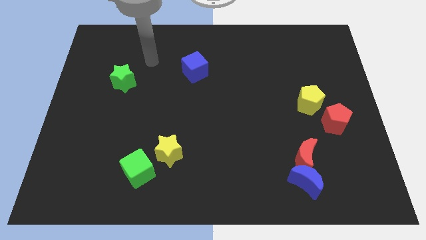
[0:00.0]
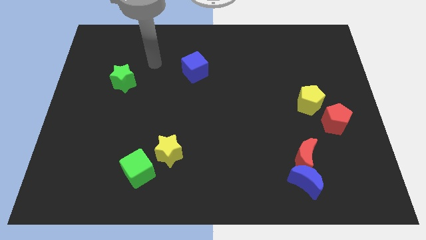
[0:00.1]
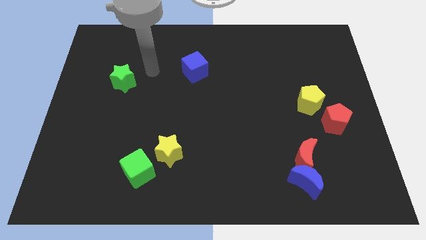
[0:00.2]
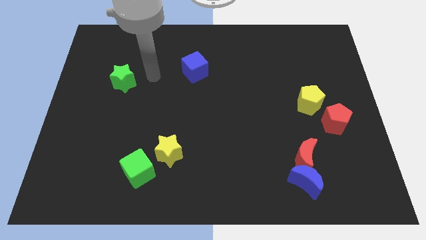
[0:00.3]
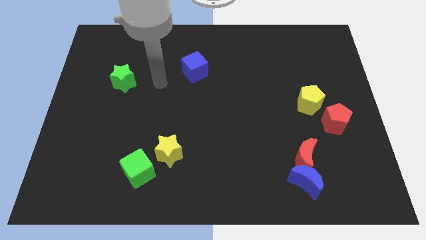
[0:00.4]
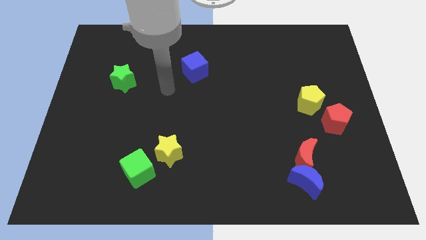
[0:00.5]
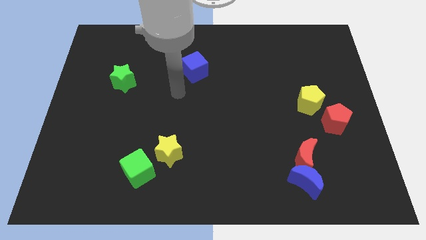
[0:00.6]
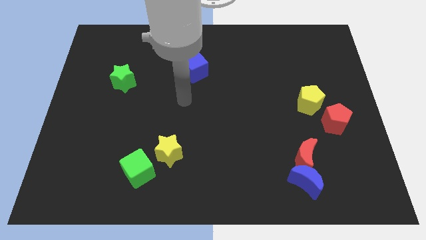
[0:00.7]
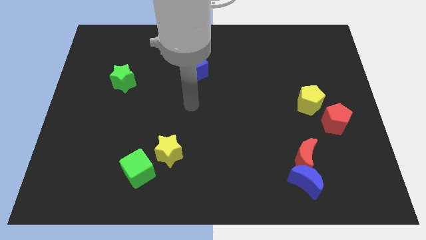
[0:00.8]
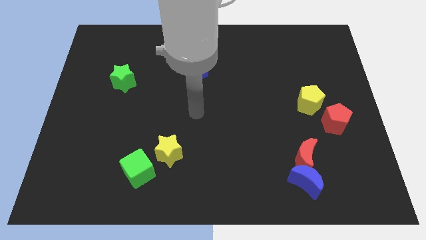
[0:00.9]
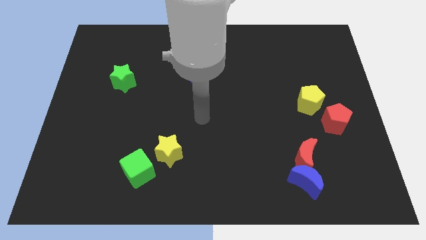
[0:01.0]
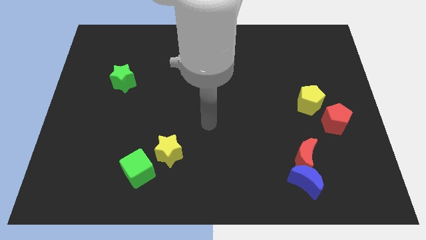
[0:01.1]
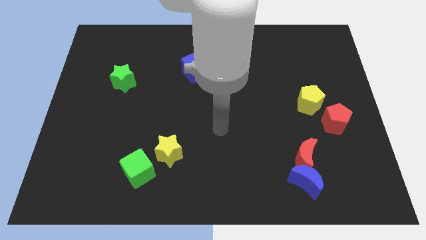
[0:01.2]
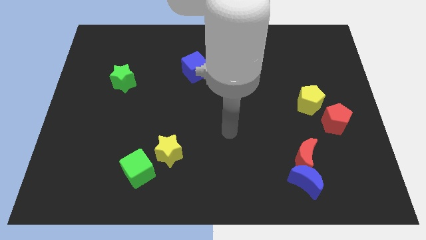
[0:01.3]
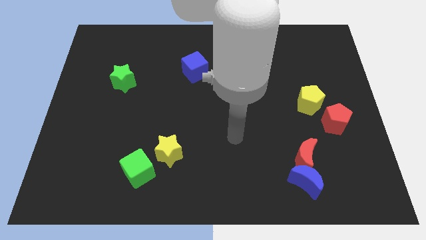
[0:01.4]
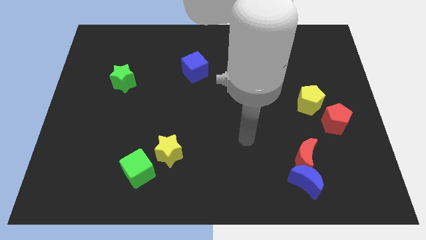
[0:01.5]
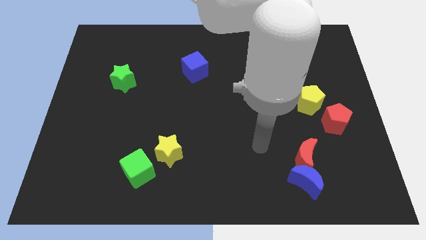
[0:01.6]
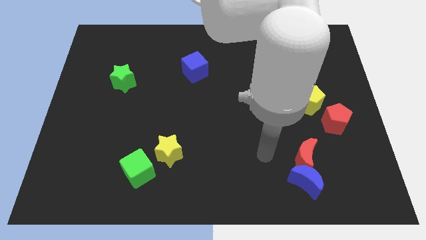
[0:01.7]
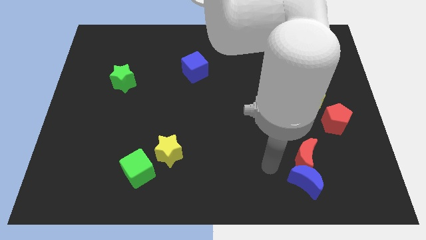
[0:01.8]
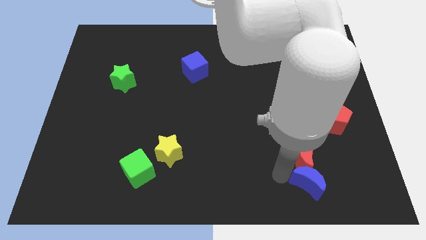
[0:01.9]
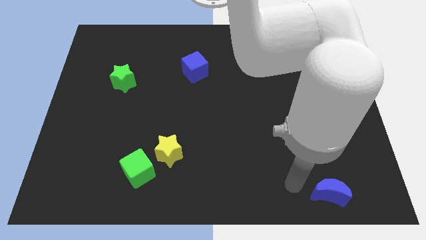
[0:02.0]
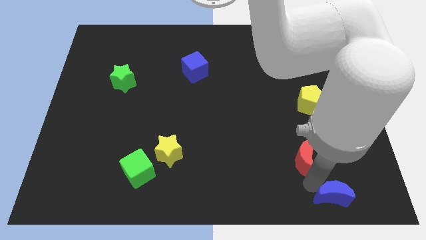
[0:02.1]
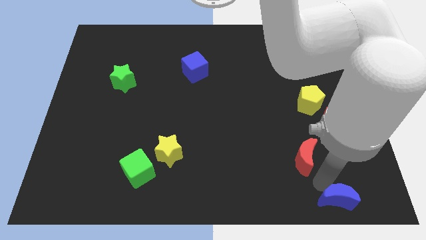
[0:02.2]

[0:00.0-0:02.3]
pull the red moon apart from the blue moon

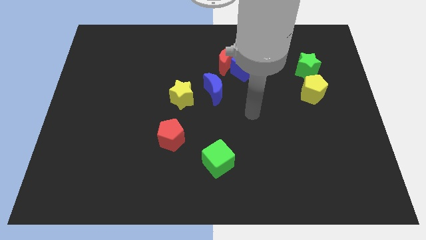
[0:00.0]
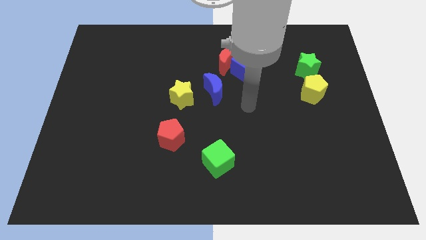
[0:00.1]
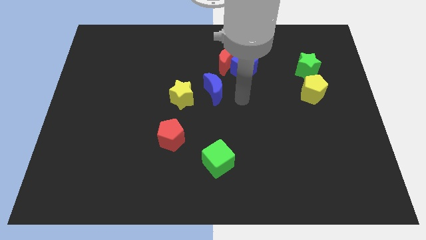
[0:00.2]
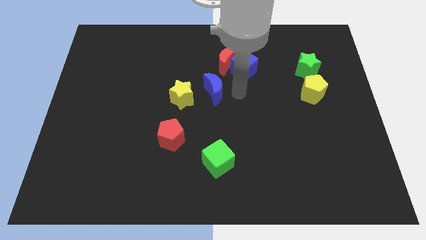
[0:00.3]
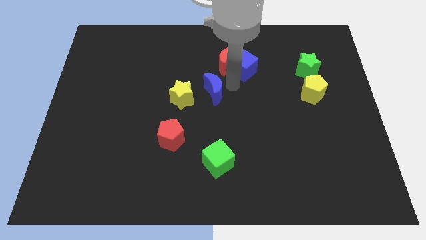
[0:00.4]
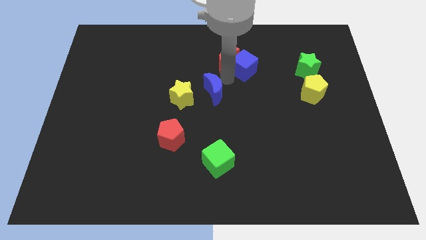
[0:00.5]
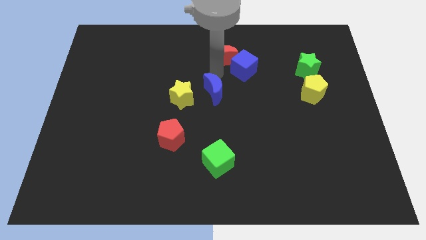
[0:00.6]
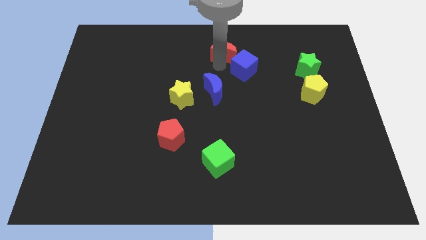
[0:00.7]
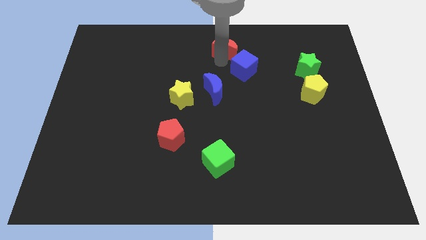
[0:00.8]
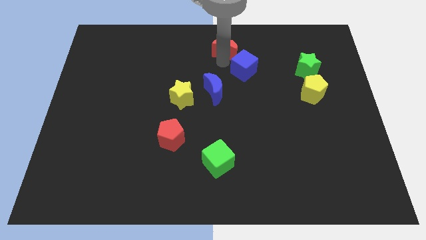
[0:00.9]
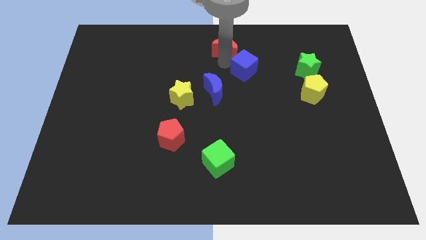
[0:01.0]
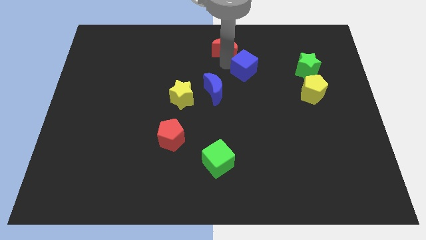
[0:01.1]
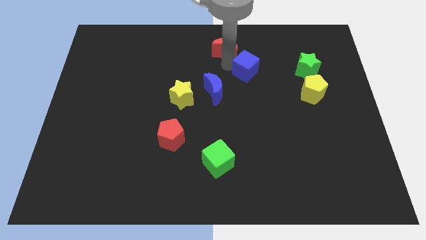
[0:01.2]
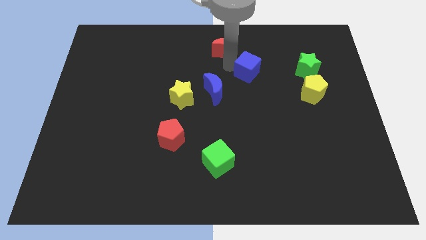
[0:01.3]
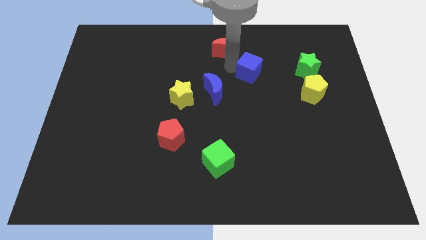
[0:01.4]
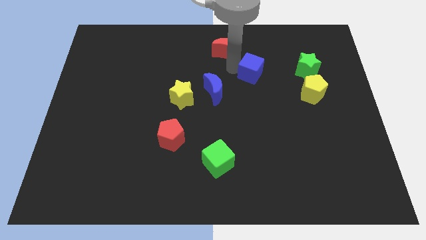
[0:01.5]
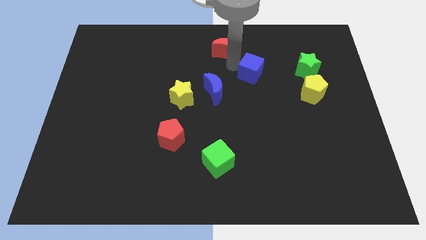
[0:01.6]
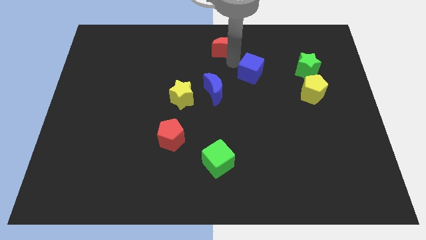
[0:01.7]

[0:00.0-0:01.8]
pull the blue cube apart from the red moon

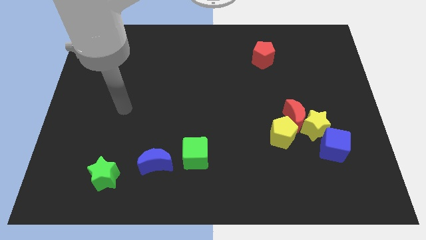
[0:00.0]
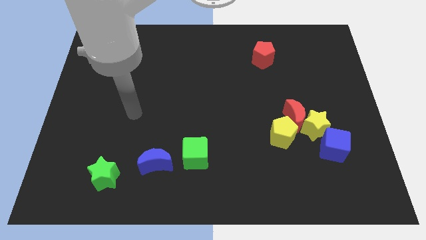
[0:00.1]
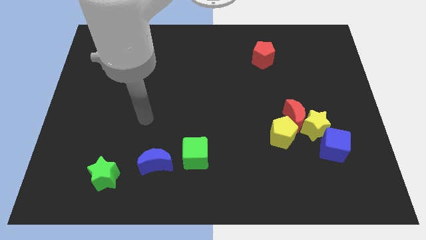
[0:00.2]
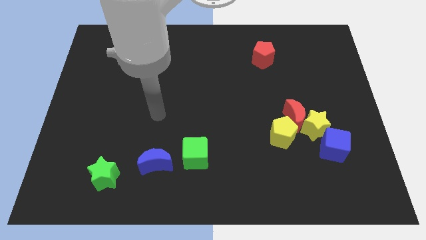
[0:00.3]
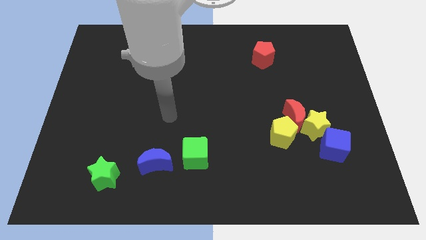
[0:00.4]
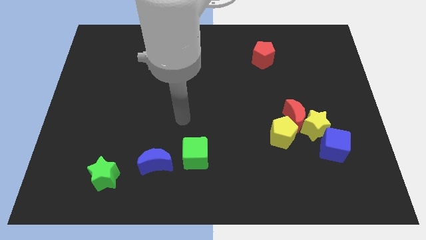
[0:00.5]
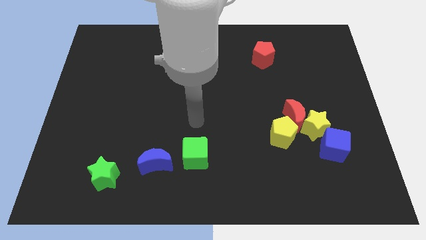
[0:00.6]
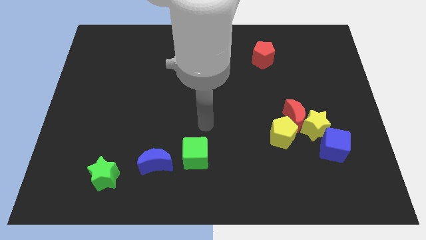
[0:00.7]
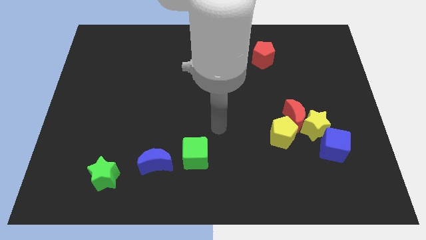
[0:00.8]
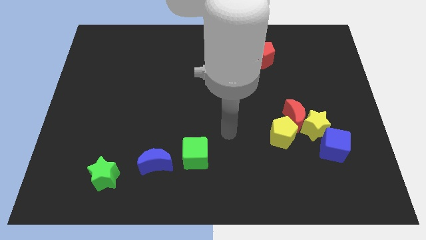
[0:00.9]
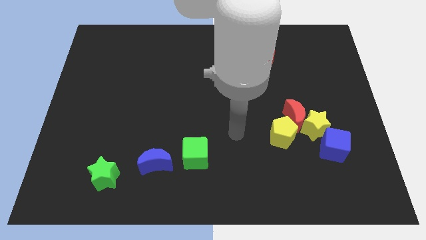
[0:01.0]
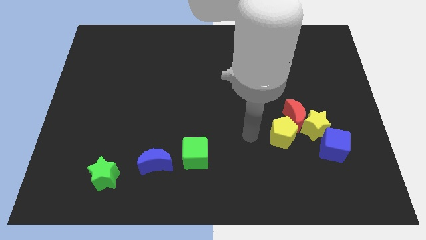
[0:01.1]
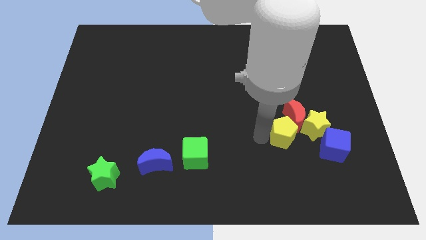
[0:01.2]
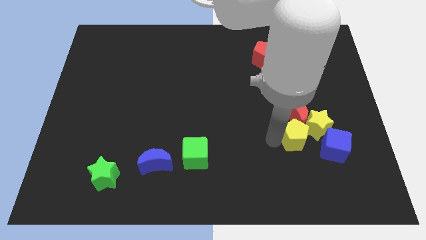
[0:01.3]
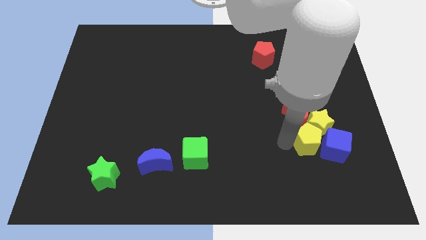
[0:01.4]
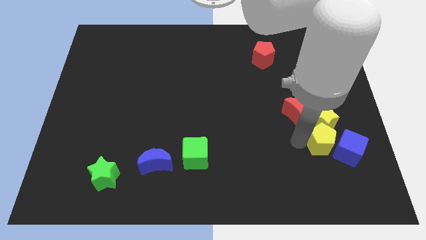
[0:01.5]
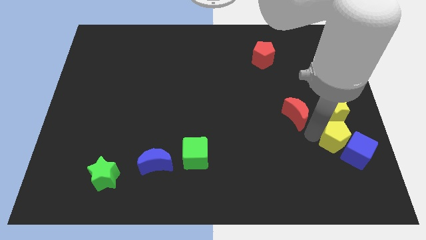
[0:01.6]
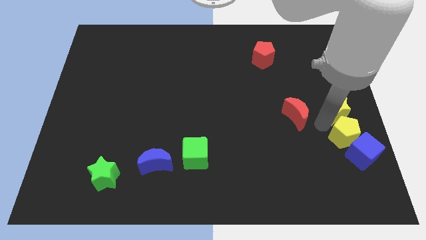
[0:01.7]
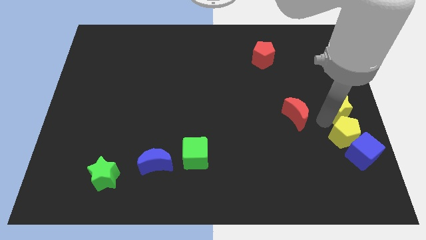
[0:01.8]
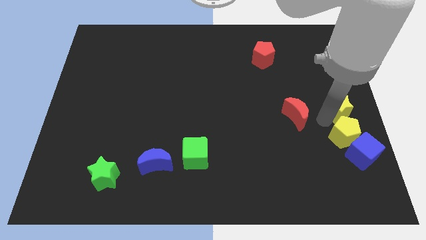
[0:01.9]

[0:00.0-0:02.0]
move the red moon away from the yellow star and yellow pentagon

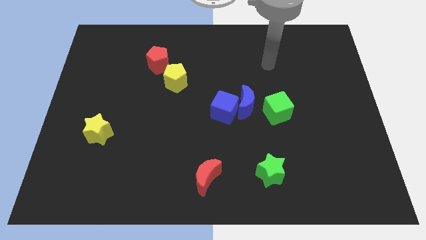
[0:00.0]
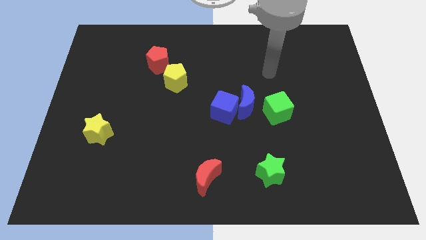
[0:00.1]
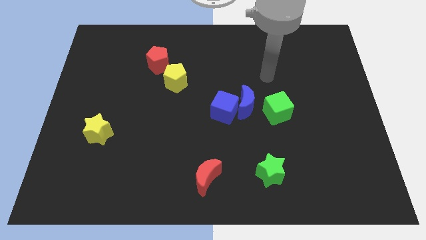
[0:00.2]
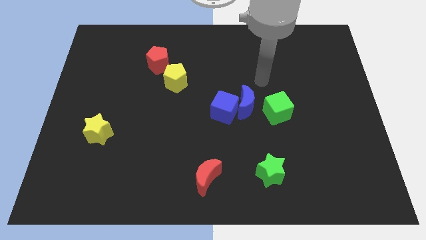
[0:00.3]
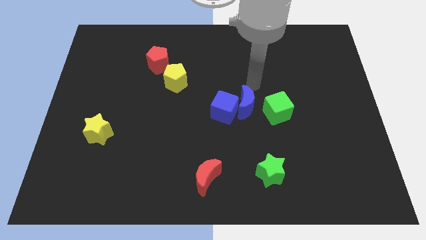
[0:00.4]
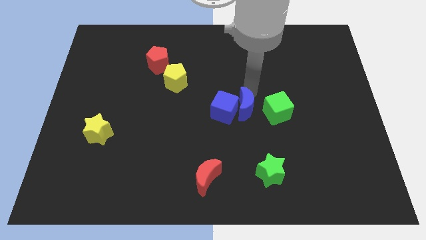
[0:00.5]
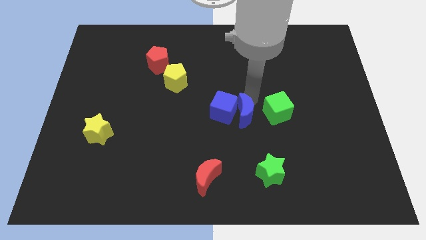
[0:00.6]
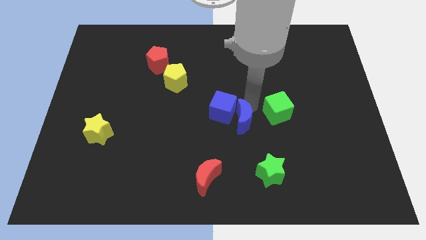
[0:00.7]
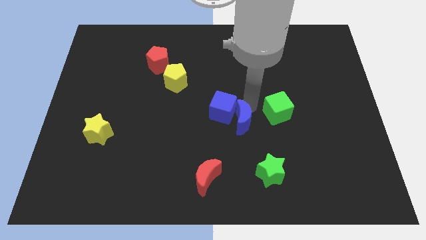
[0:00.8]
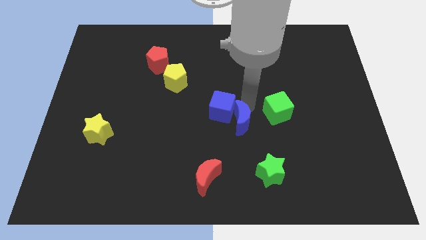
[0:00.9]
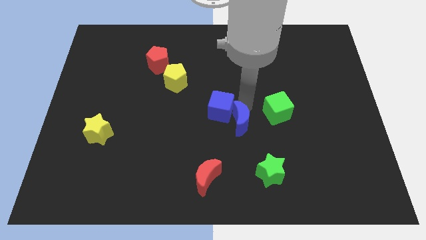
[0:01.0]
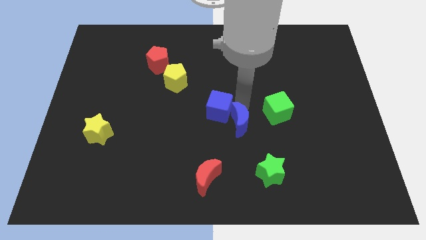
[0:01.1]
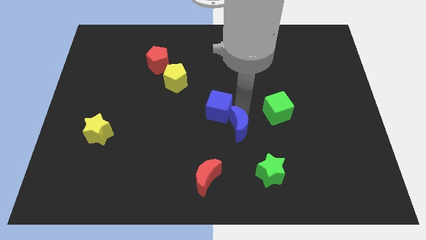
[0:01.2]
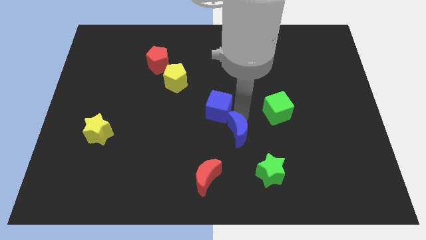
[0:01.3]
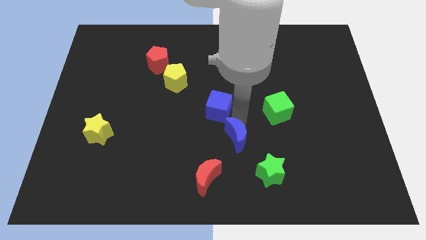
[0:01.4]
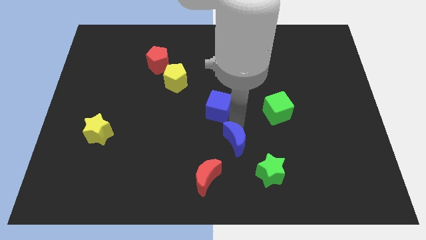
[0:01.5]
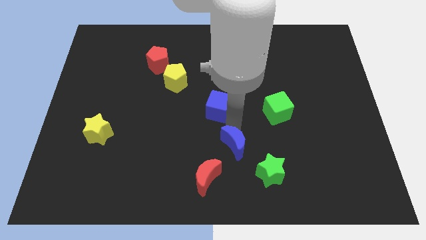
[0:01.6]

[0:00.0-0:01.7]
pull the blue cube apart from the blue moon

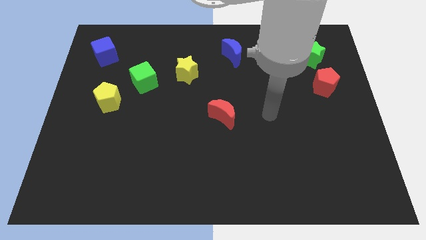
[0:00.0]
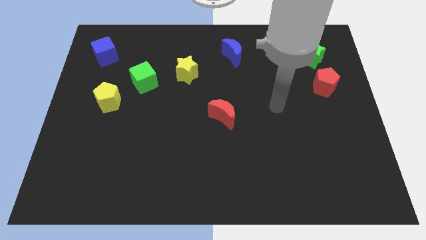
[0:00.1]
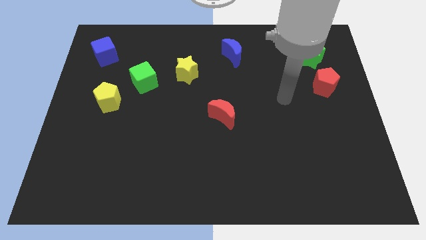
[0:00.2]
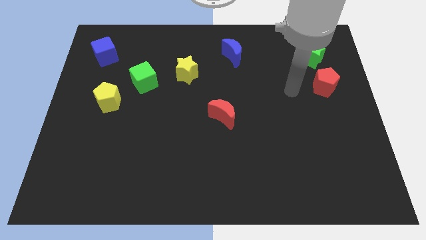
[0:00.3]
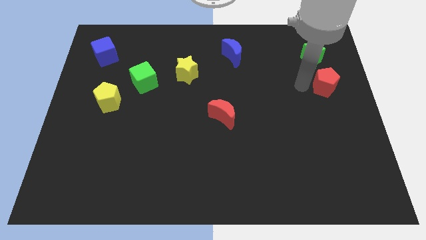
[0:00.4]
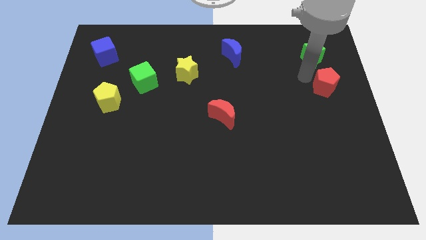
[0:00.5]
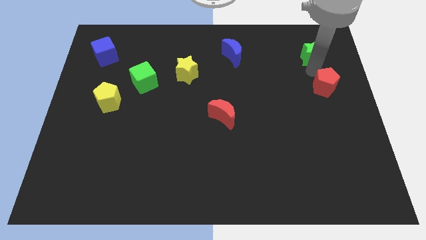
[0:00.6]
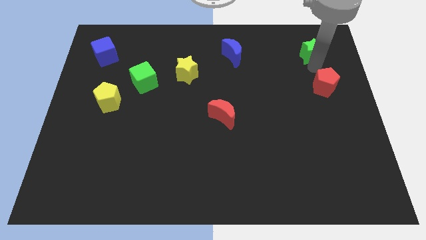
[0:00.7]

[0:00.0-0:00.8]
separate the red pentagon from the green star

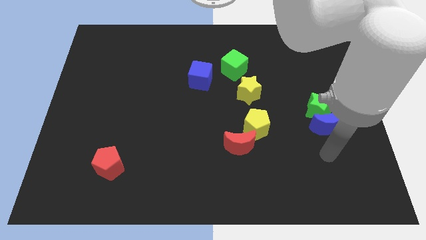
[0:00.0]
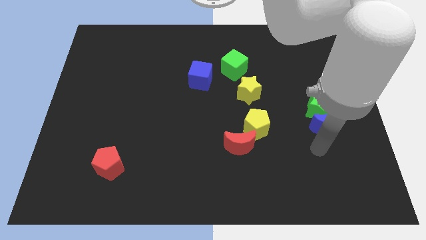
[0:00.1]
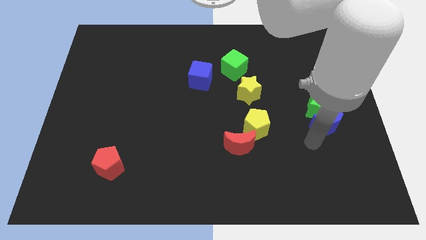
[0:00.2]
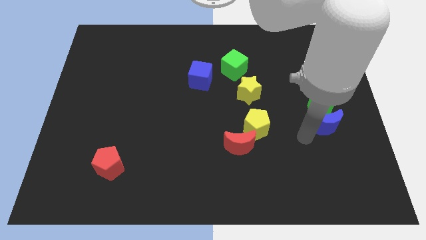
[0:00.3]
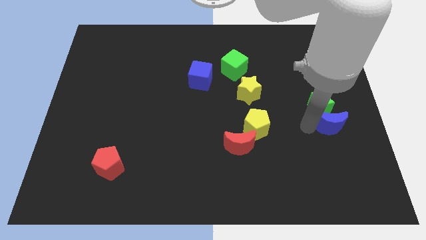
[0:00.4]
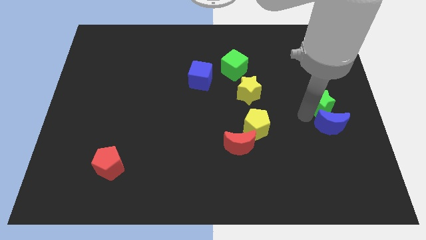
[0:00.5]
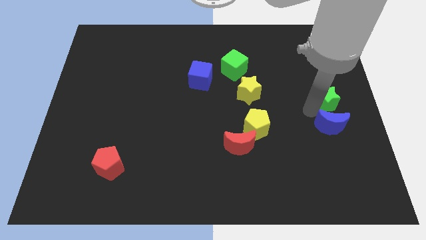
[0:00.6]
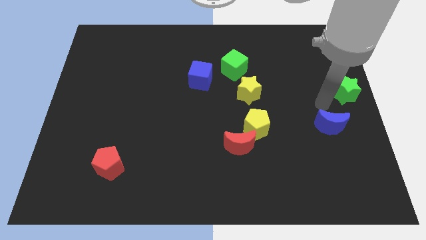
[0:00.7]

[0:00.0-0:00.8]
separate the blue moon from the green star
